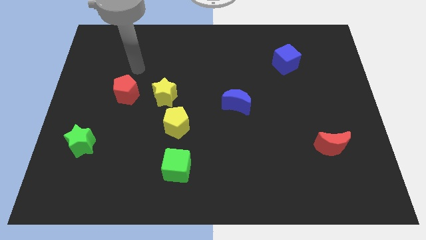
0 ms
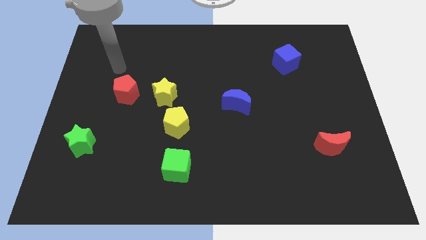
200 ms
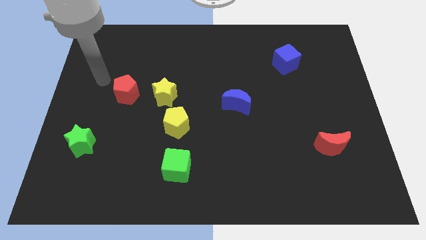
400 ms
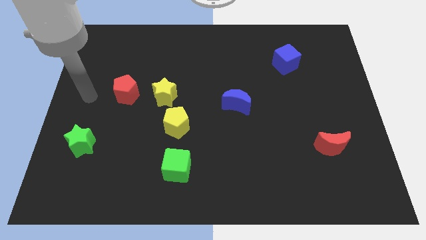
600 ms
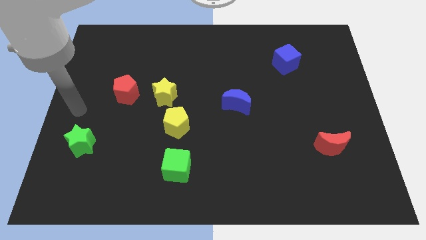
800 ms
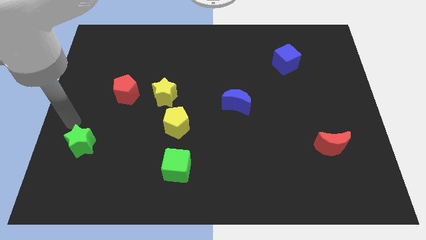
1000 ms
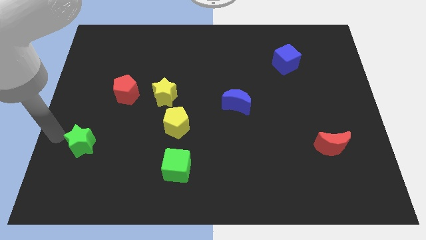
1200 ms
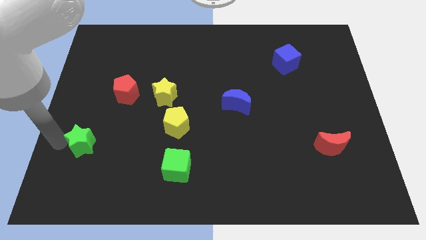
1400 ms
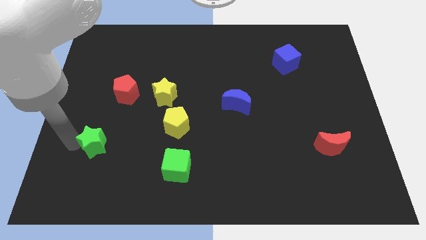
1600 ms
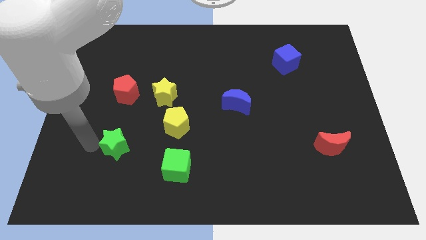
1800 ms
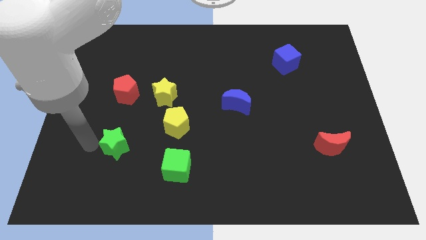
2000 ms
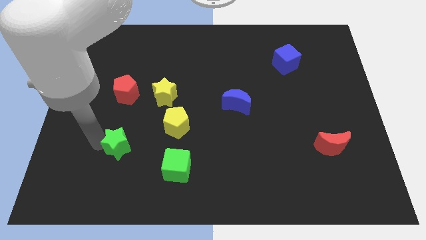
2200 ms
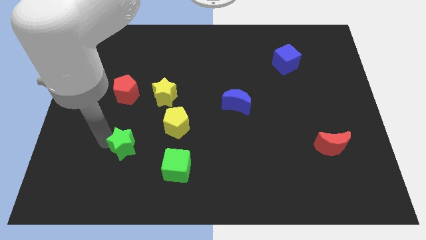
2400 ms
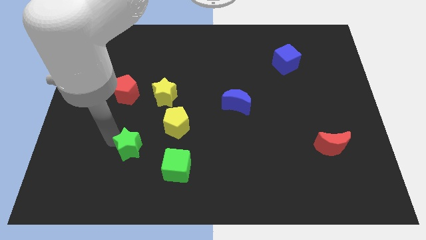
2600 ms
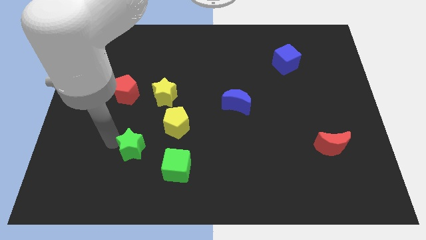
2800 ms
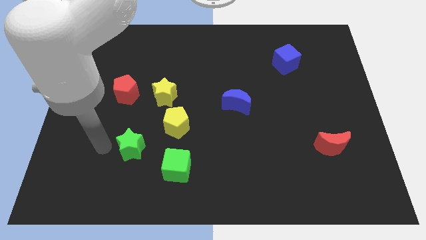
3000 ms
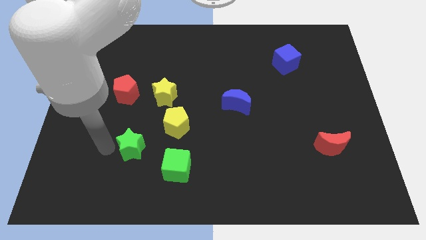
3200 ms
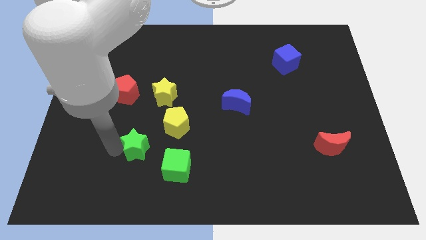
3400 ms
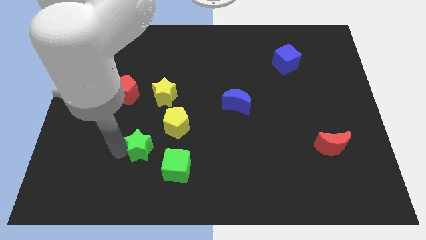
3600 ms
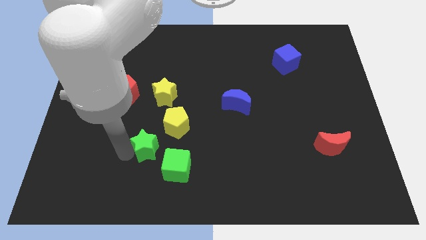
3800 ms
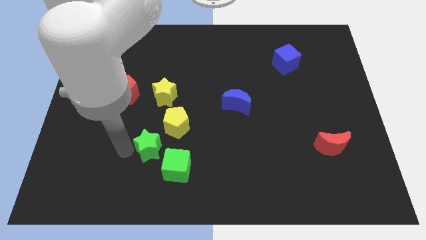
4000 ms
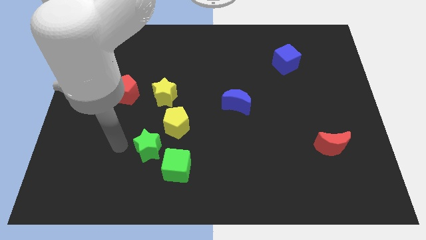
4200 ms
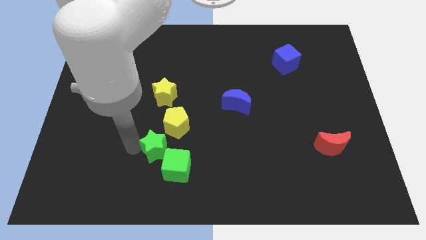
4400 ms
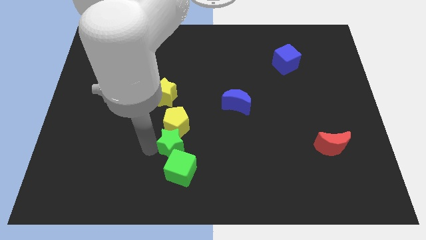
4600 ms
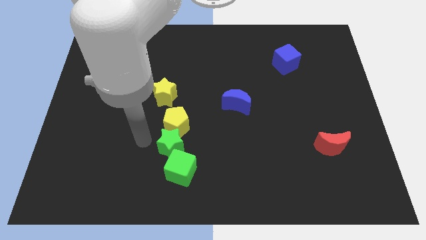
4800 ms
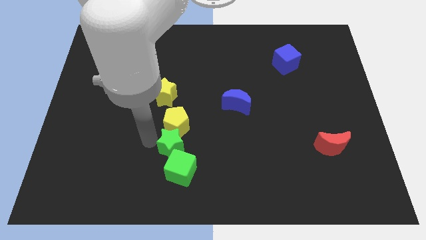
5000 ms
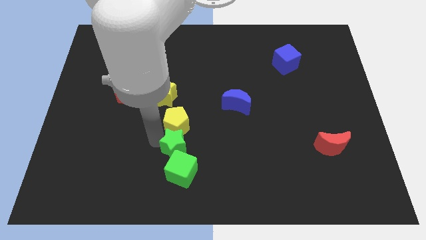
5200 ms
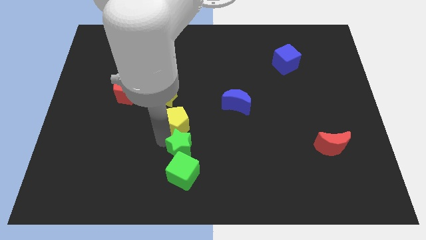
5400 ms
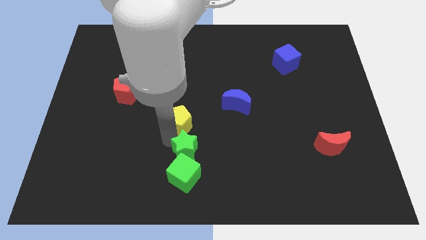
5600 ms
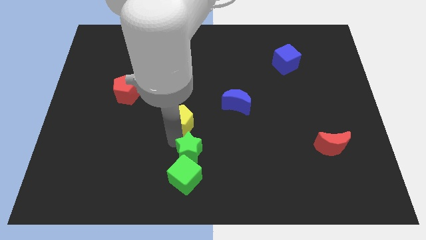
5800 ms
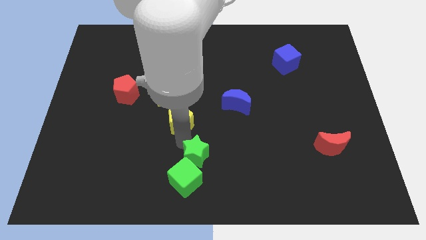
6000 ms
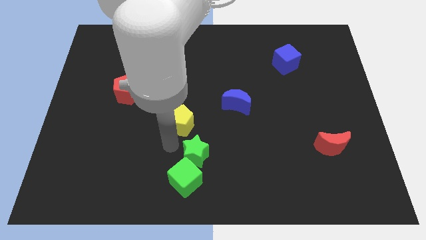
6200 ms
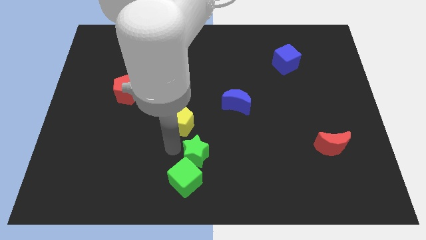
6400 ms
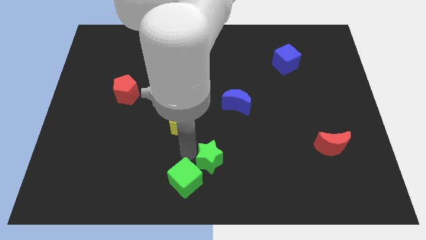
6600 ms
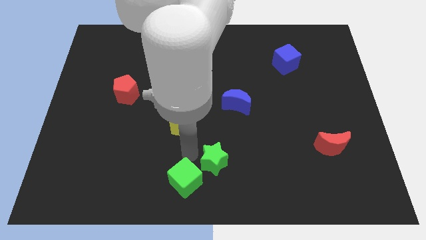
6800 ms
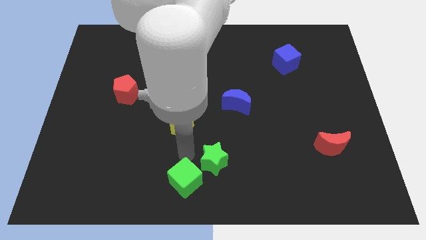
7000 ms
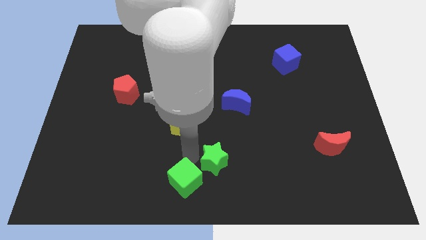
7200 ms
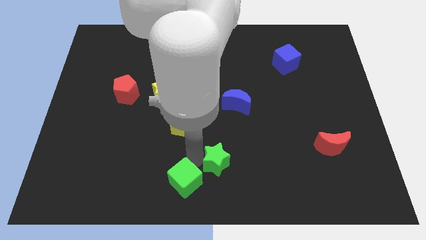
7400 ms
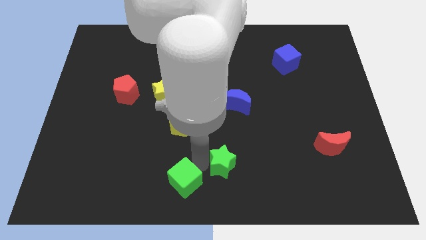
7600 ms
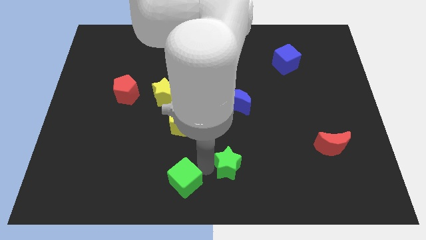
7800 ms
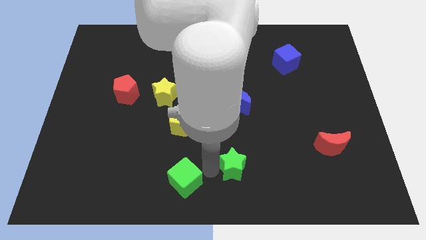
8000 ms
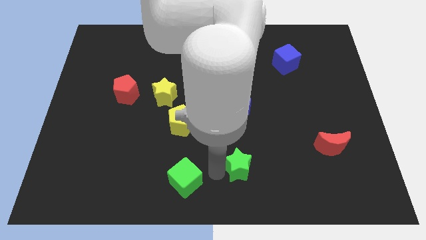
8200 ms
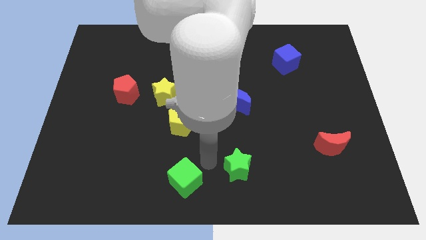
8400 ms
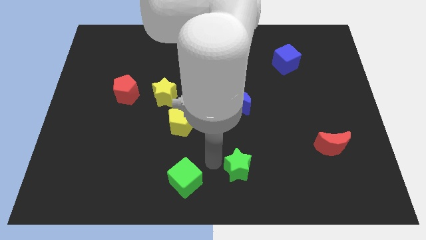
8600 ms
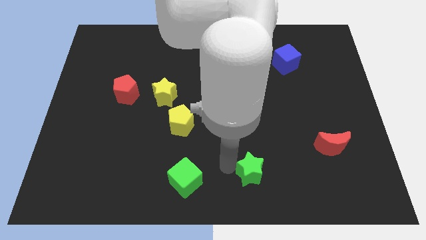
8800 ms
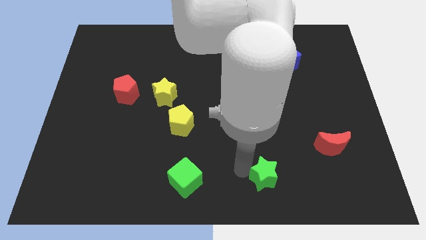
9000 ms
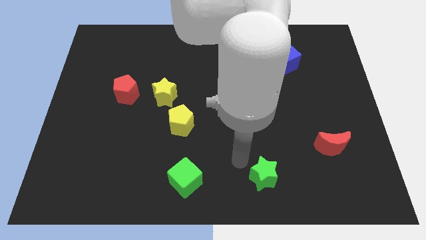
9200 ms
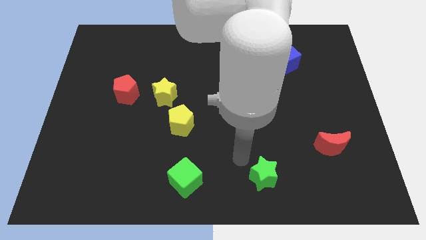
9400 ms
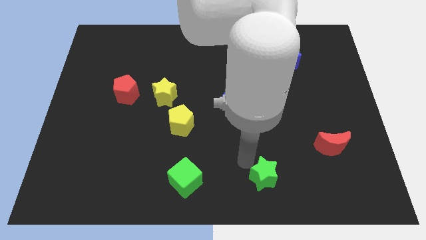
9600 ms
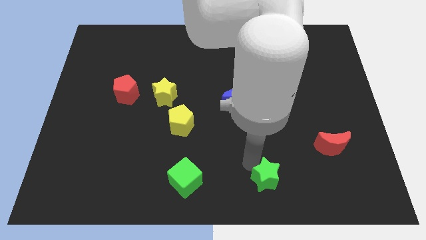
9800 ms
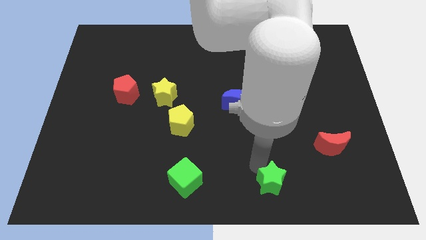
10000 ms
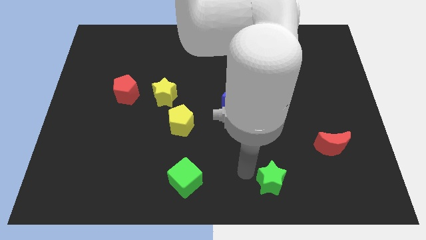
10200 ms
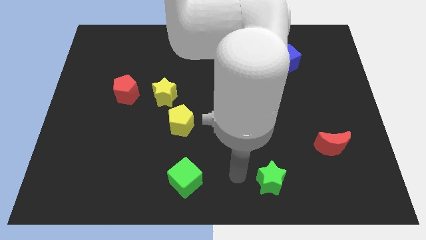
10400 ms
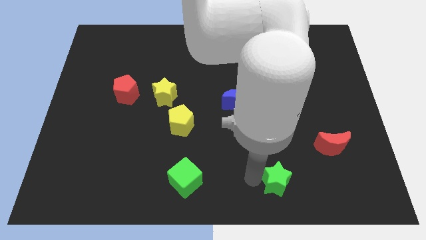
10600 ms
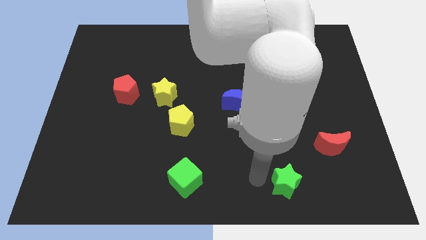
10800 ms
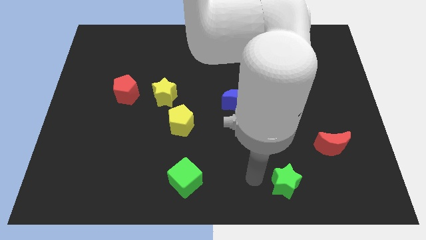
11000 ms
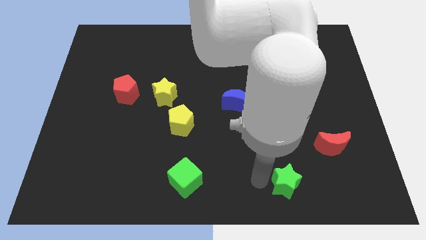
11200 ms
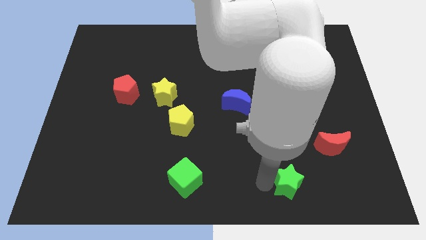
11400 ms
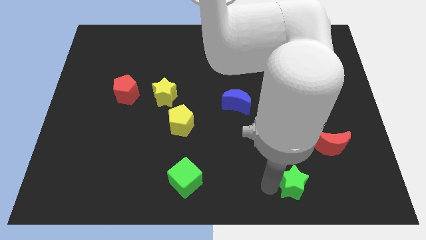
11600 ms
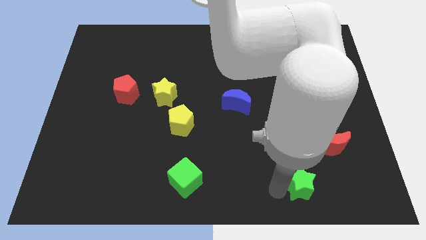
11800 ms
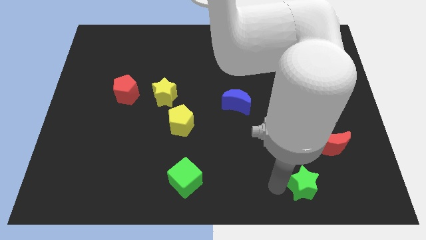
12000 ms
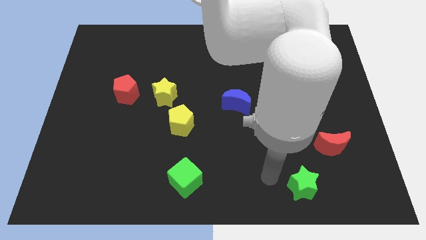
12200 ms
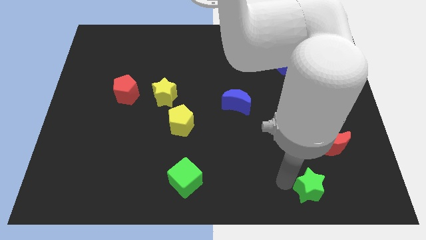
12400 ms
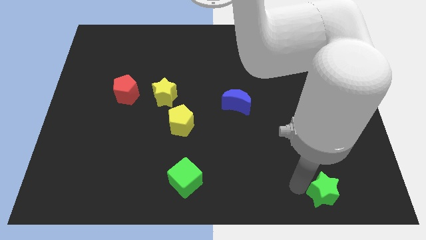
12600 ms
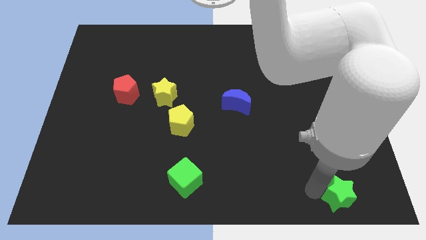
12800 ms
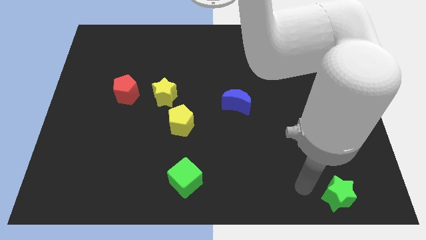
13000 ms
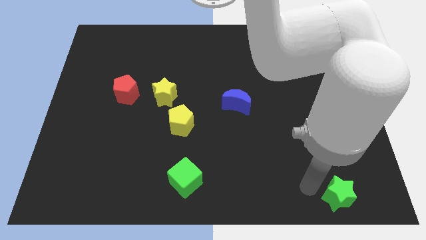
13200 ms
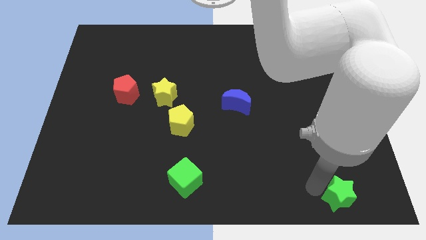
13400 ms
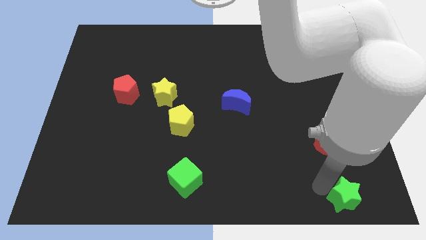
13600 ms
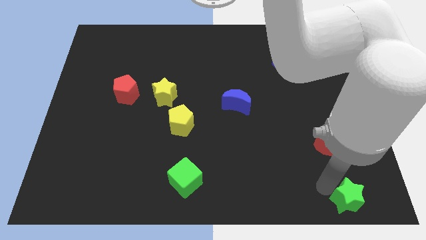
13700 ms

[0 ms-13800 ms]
push the green star to the lower right corner
